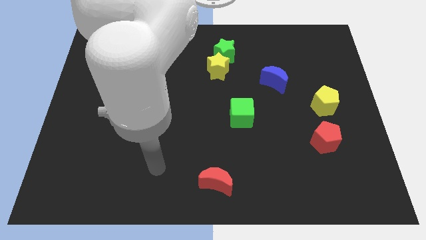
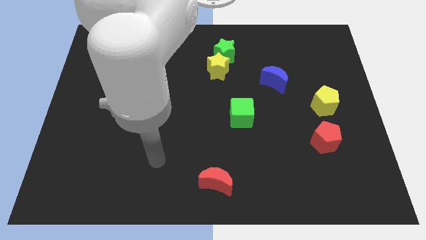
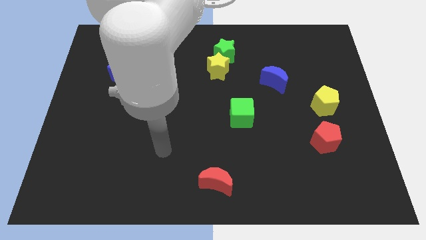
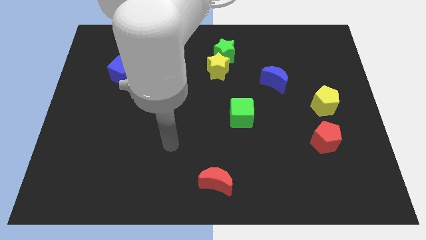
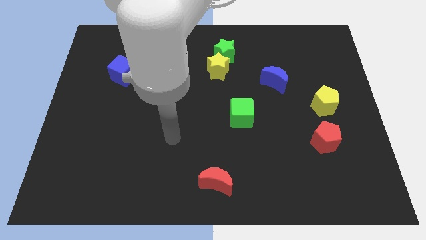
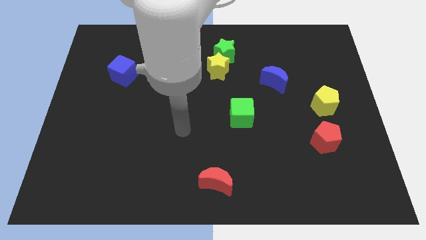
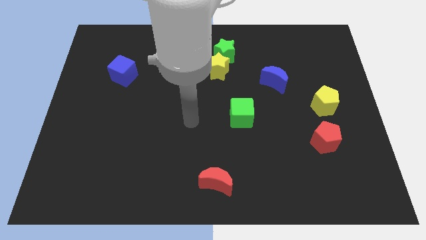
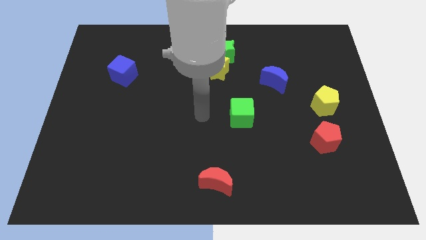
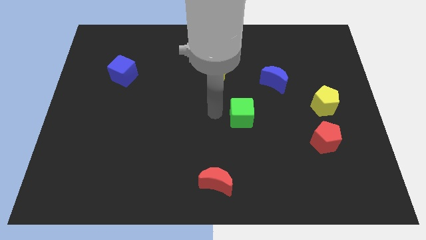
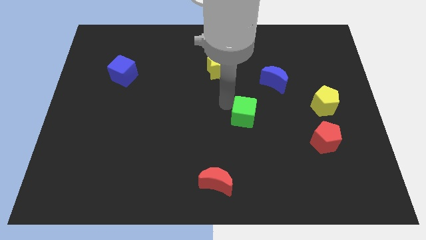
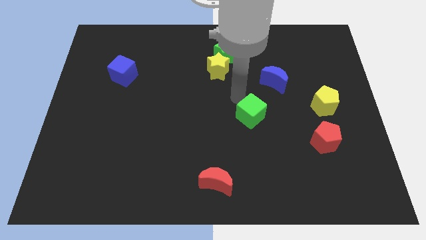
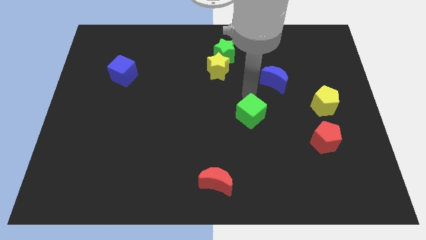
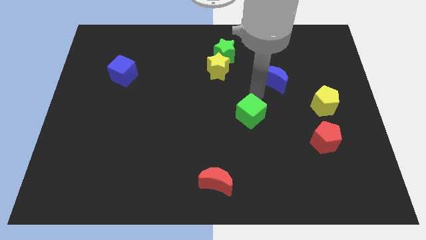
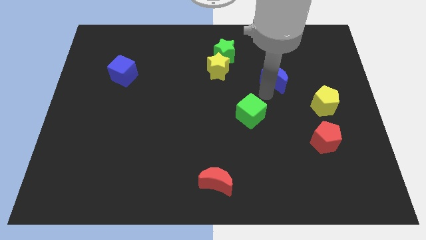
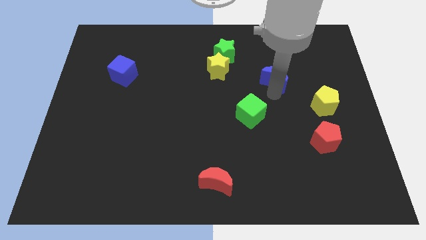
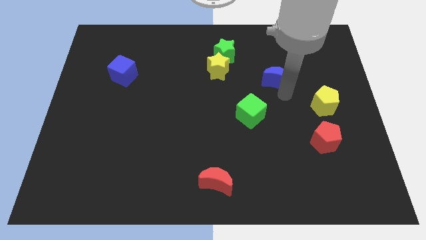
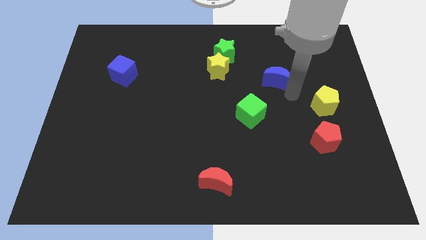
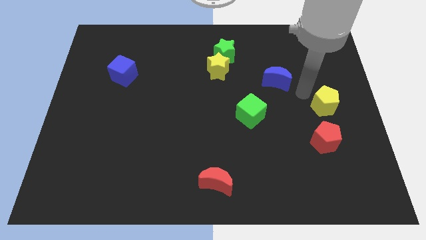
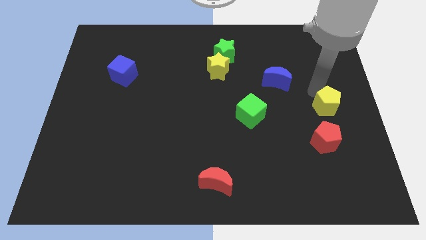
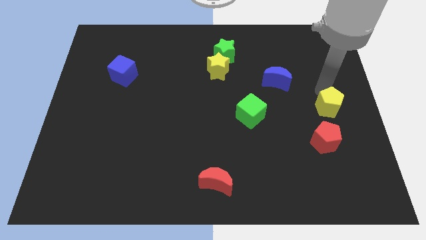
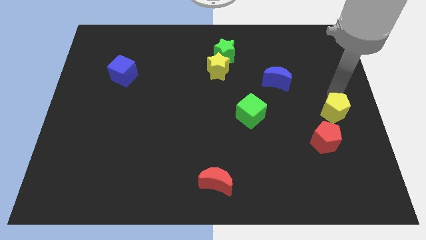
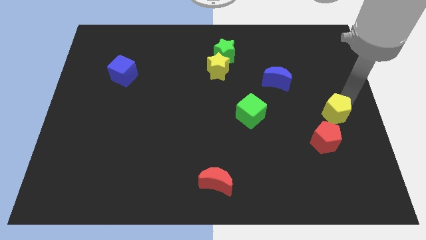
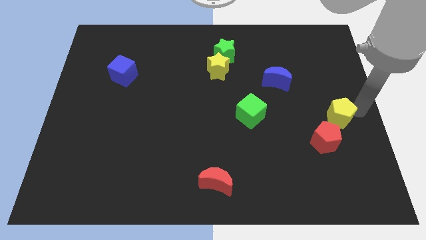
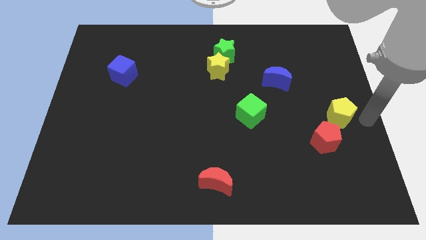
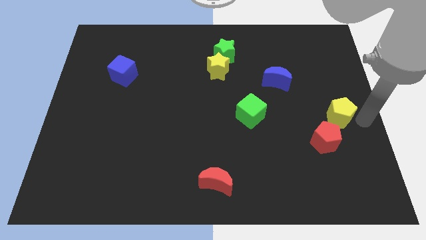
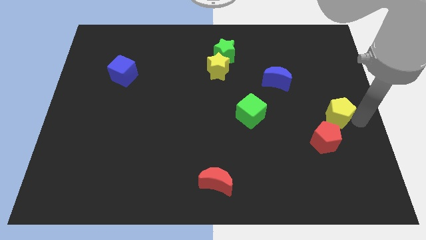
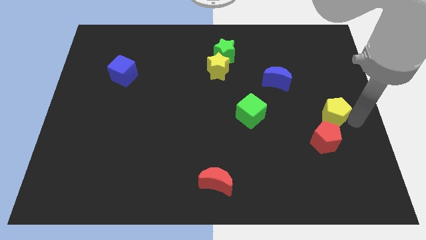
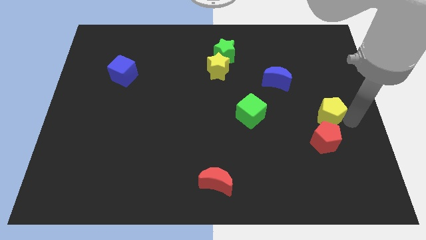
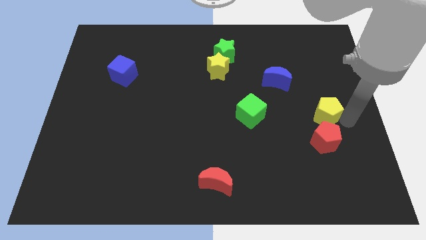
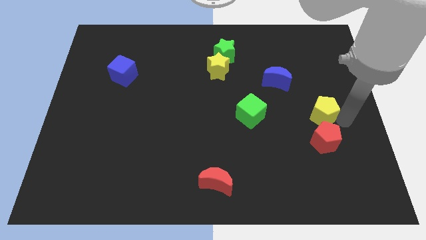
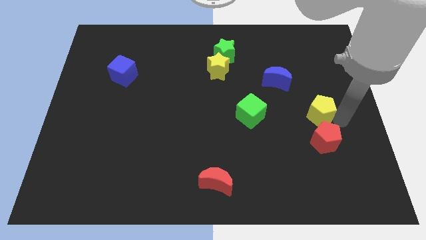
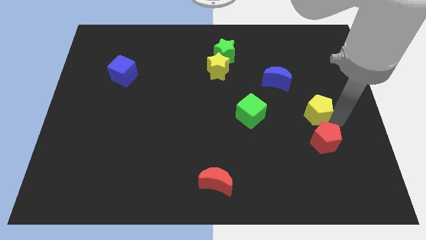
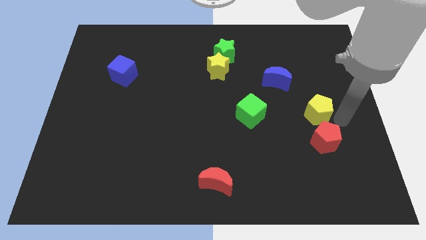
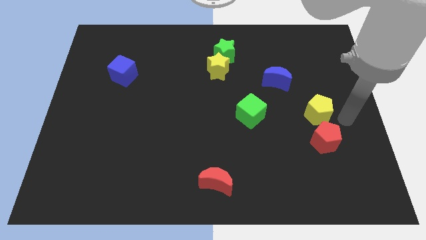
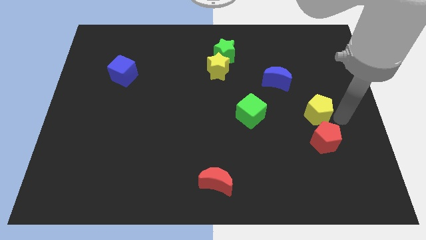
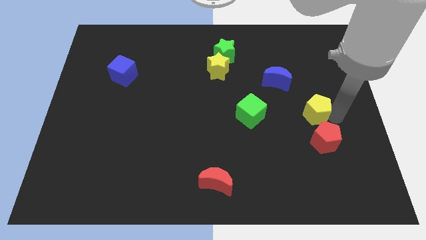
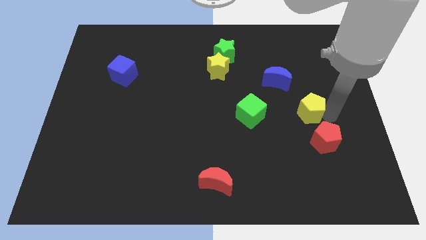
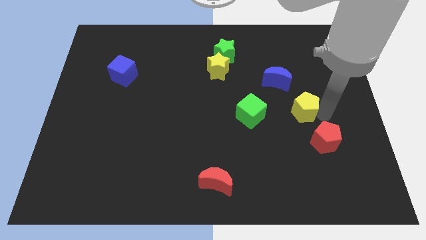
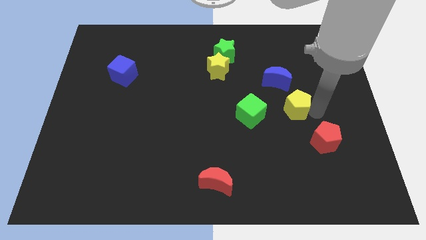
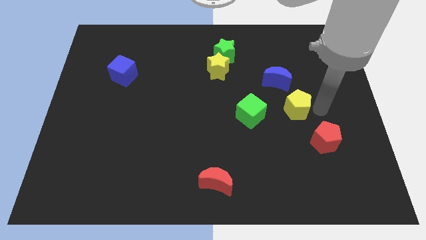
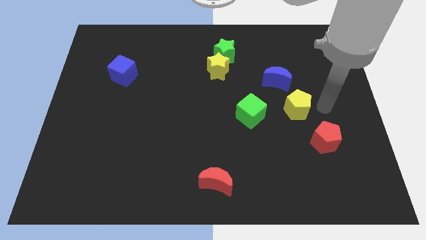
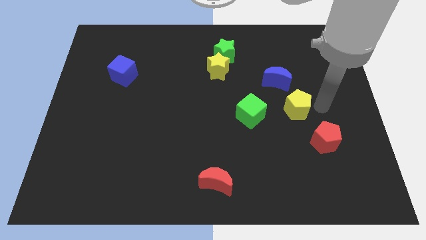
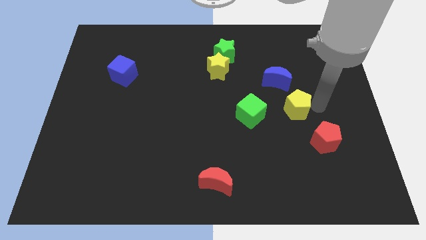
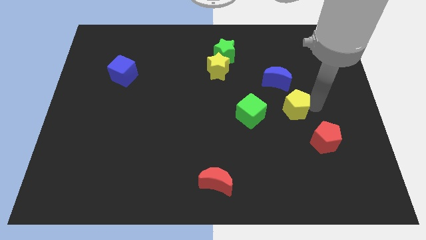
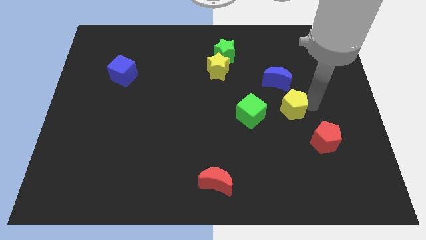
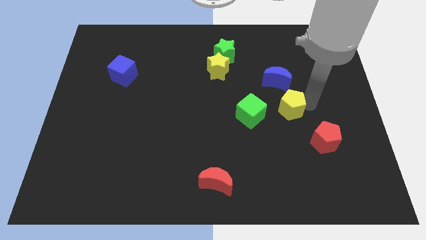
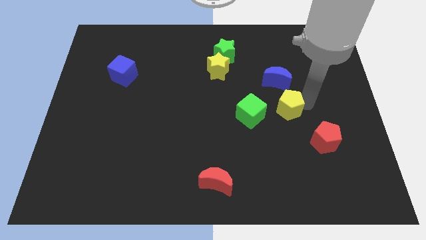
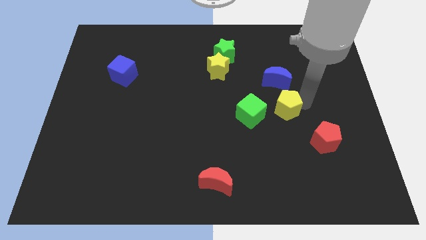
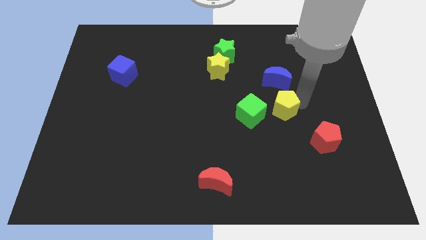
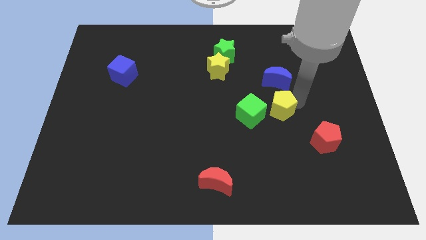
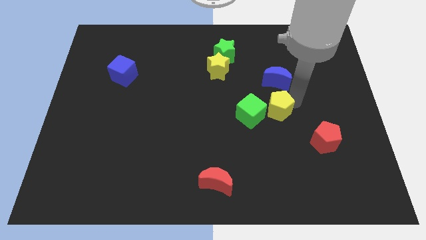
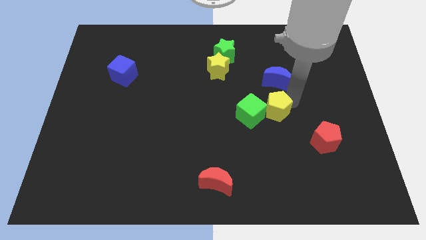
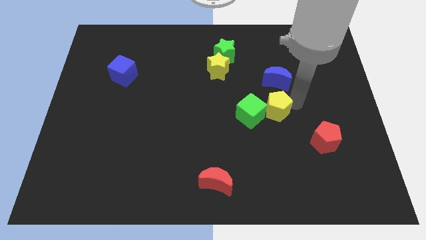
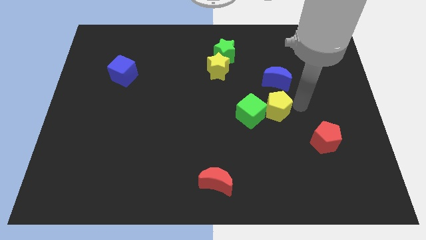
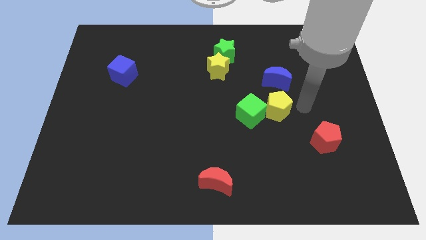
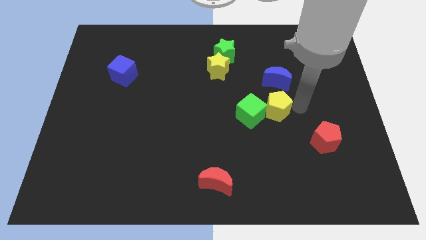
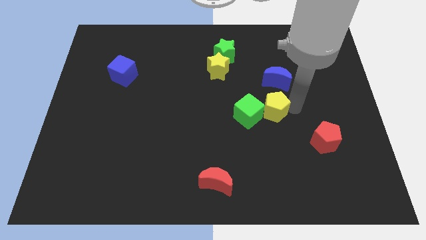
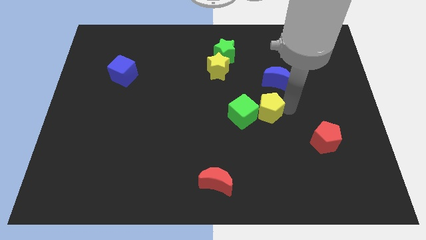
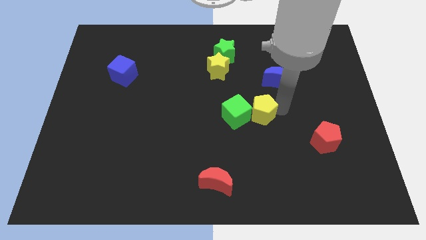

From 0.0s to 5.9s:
slide the yellow pentagon close to the green cube

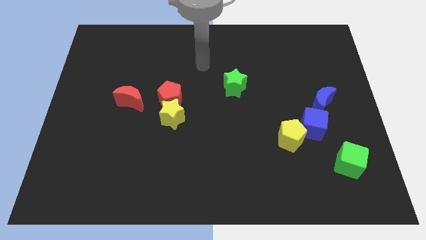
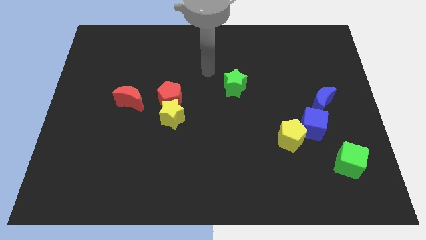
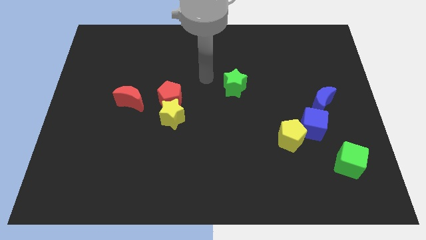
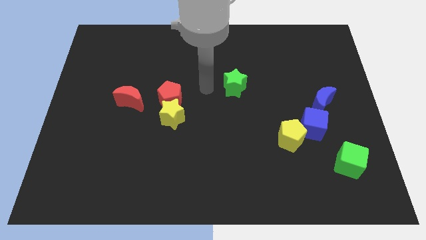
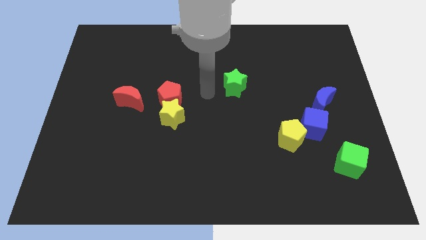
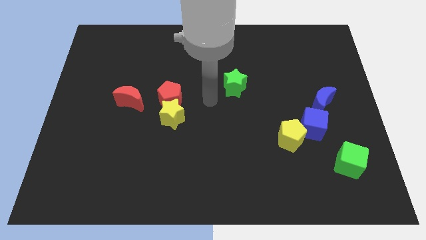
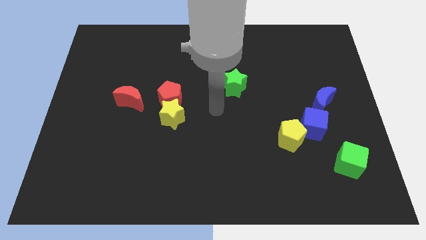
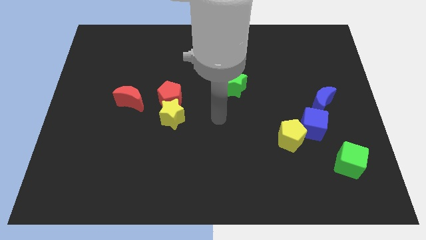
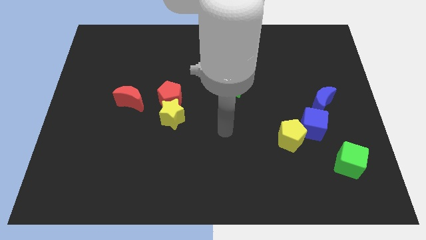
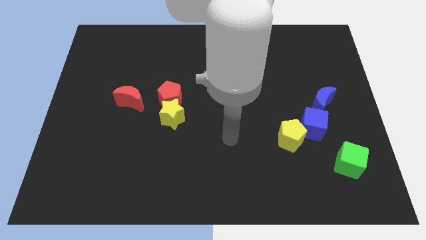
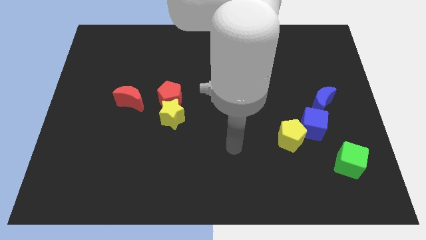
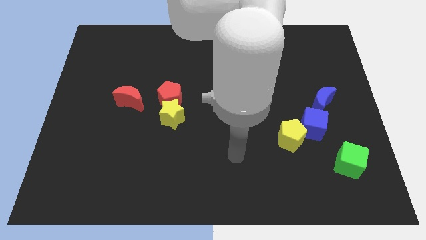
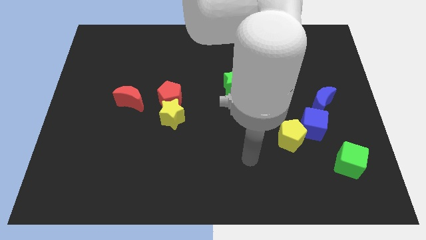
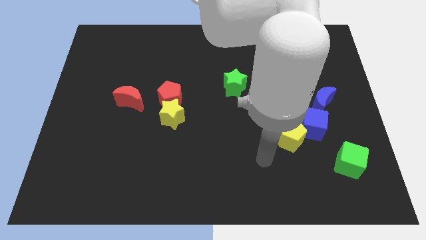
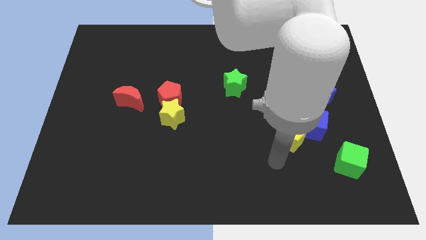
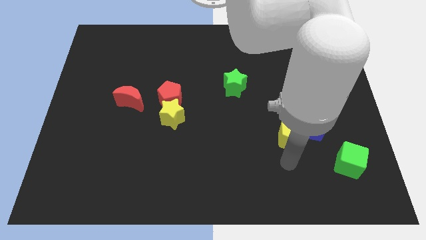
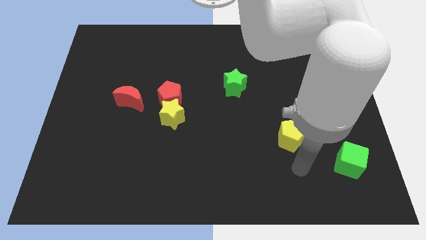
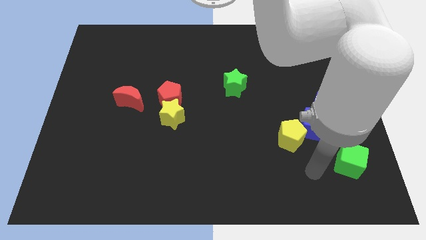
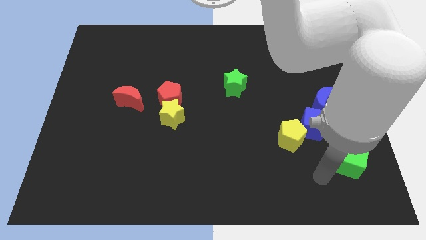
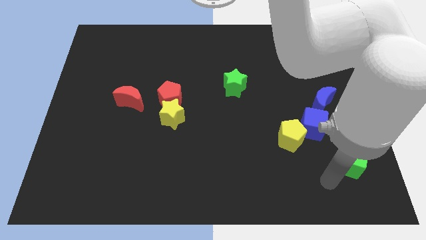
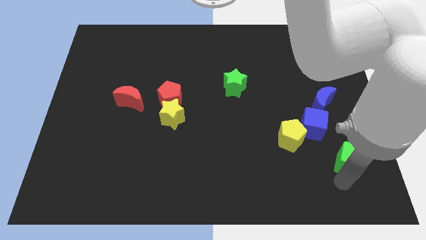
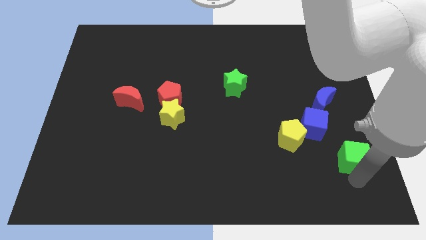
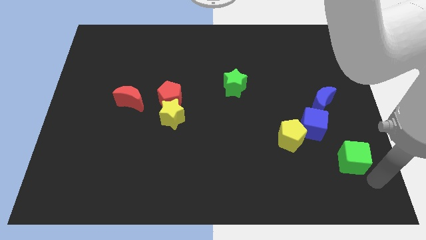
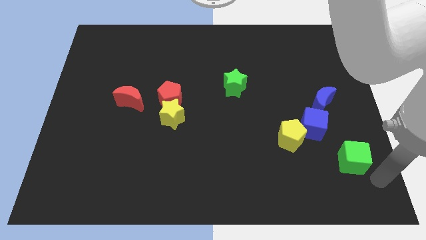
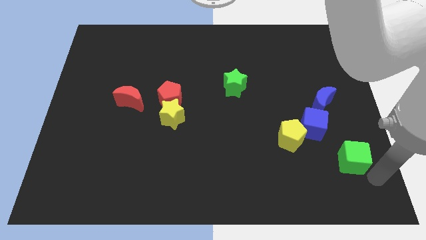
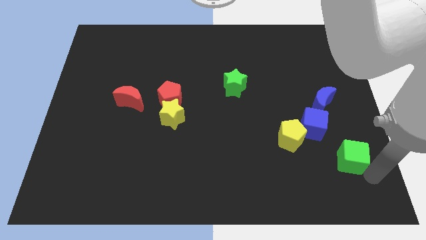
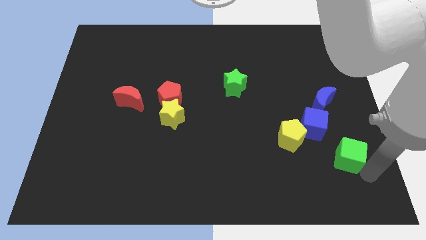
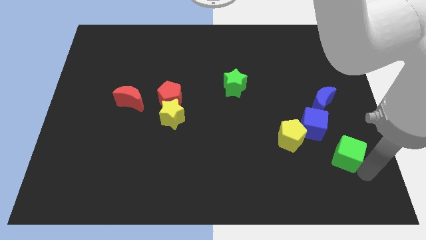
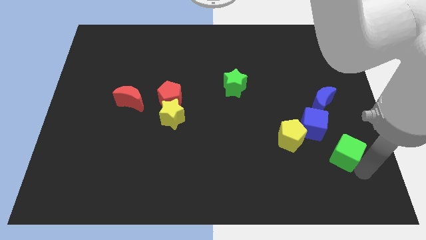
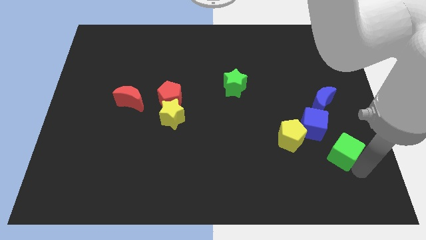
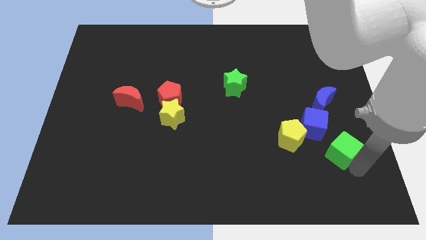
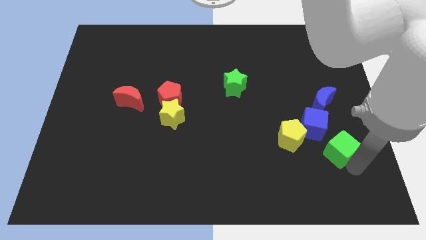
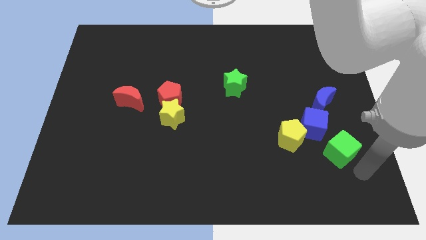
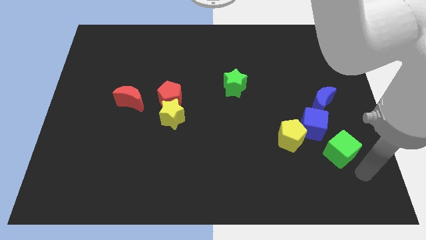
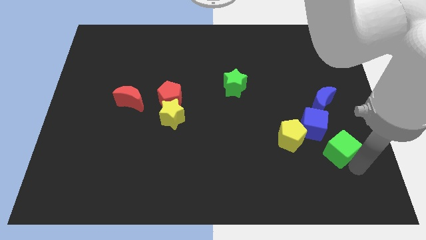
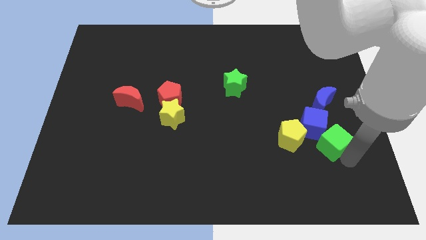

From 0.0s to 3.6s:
move the green cube towards the blue cube
